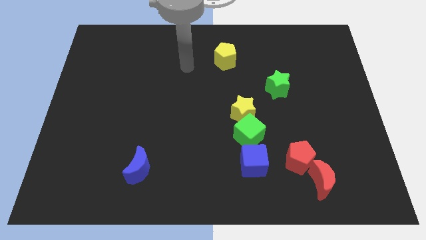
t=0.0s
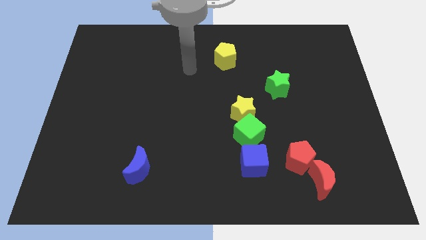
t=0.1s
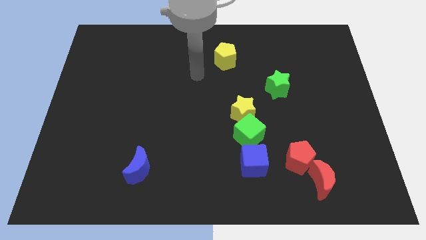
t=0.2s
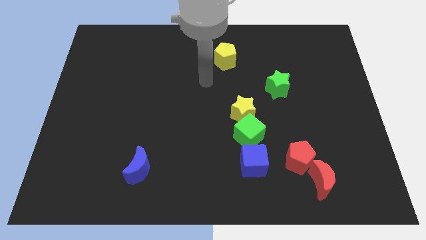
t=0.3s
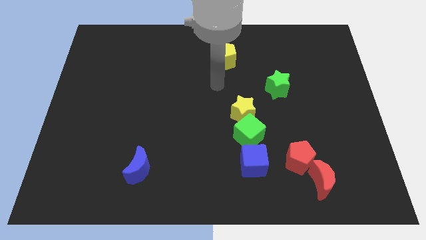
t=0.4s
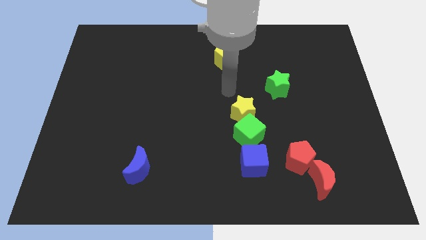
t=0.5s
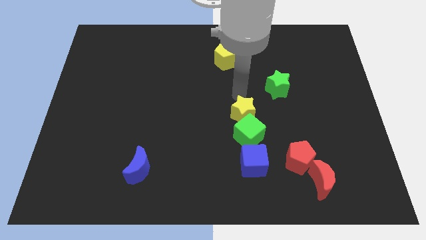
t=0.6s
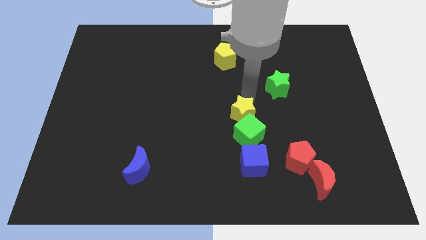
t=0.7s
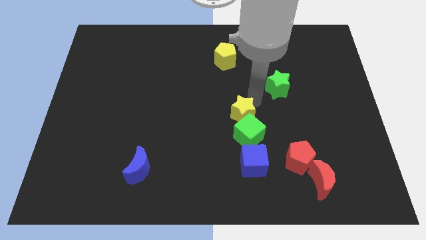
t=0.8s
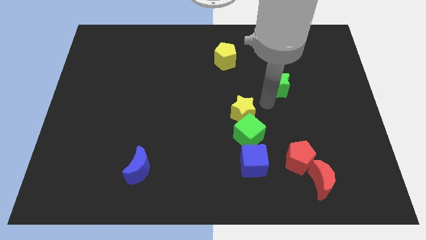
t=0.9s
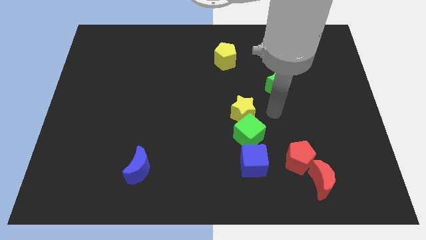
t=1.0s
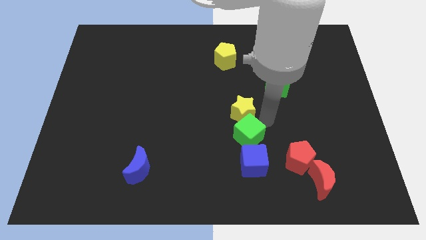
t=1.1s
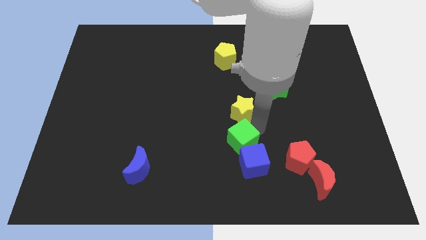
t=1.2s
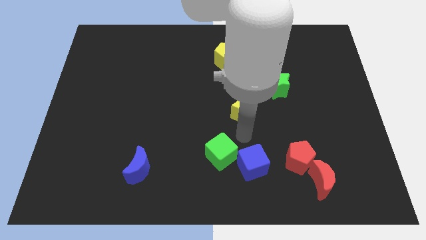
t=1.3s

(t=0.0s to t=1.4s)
pull the yellow star apart from the green cube

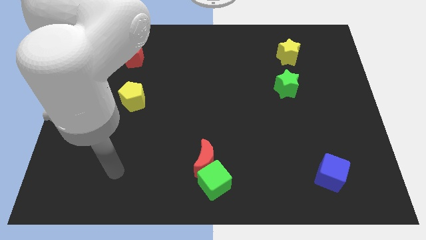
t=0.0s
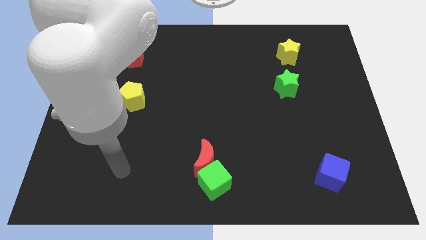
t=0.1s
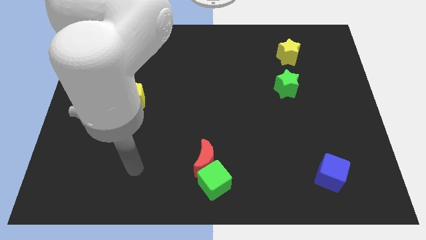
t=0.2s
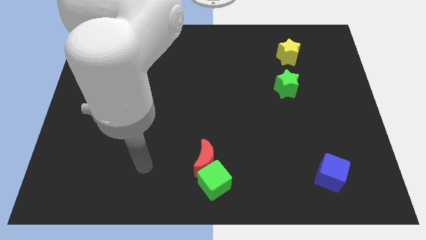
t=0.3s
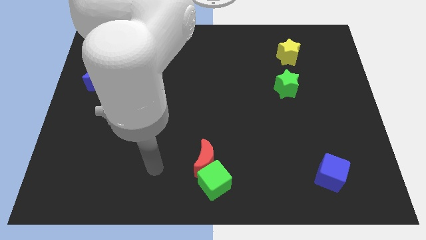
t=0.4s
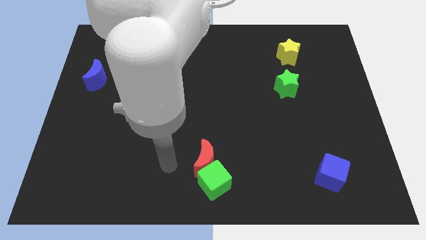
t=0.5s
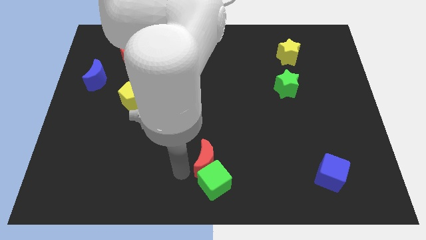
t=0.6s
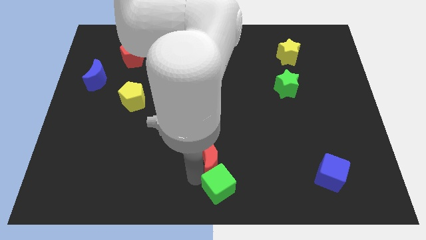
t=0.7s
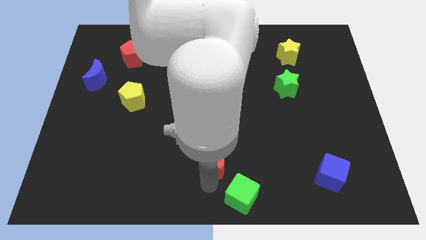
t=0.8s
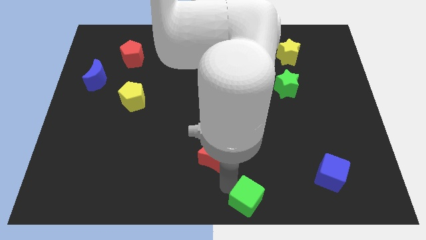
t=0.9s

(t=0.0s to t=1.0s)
pull the red moon apart from the green cube

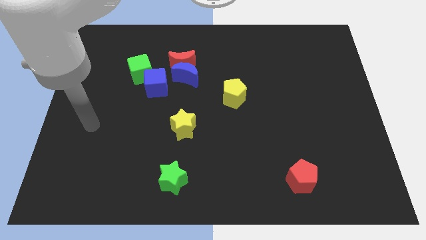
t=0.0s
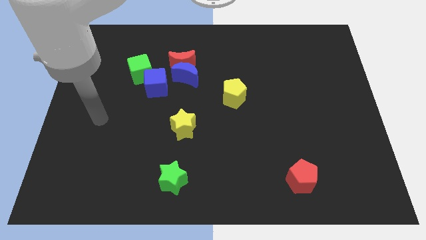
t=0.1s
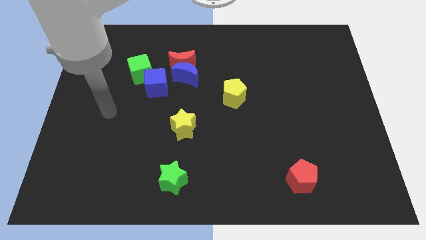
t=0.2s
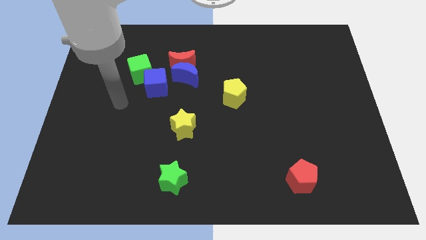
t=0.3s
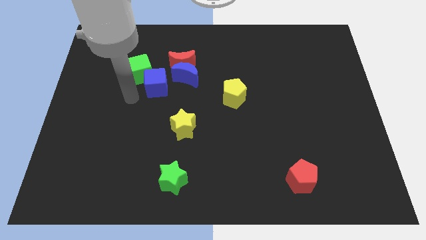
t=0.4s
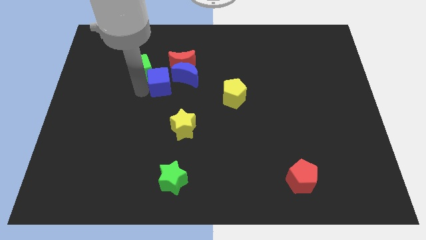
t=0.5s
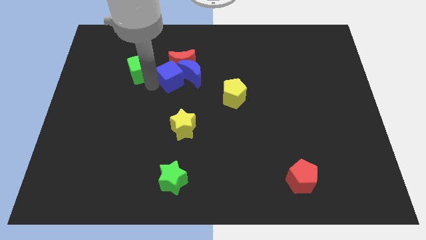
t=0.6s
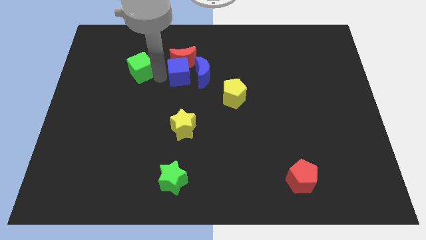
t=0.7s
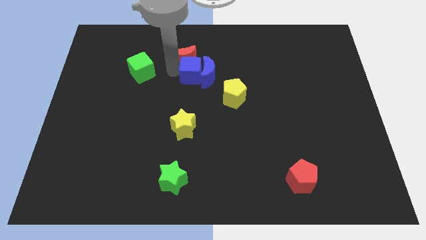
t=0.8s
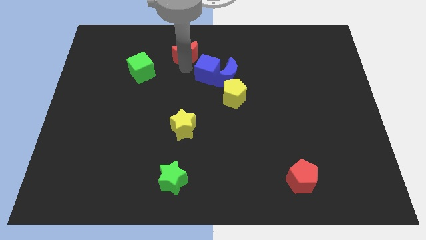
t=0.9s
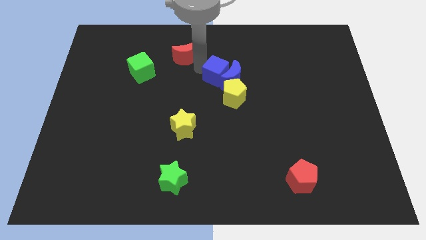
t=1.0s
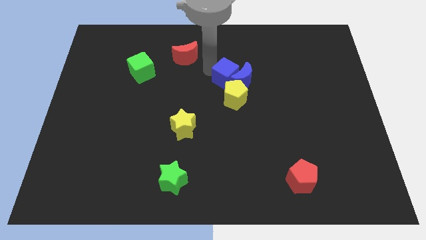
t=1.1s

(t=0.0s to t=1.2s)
separate the blue moon from the red moon and blue cube

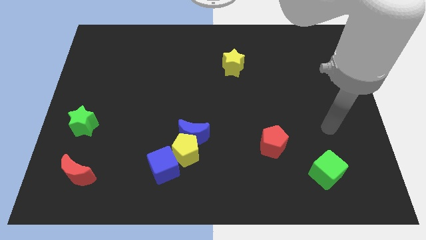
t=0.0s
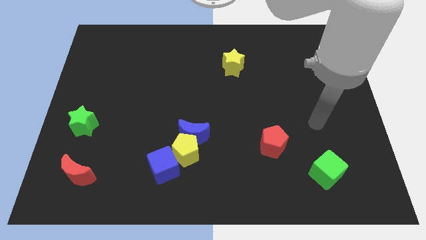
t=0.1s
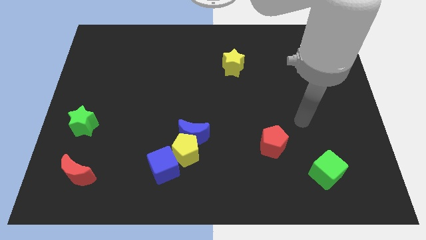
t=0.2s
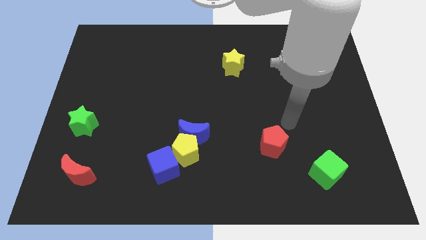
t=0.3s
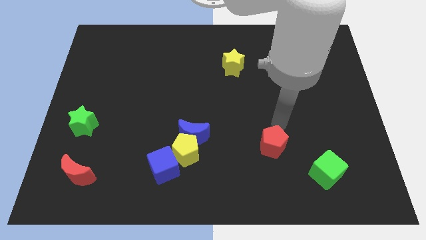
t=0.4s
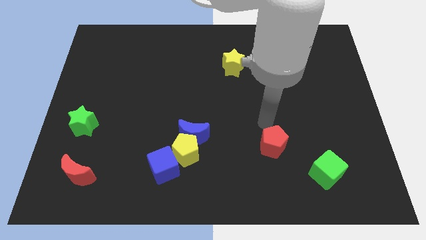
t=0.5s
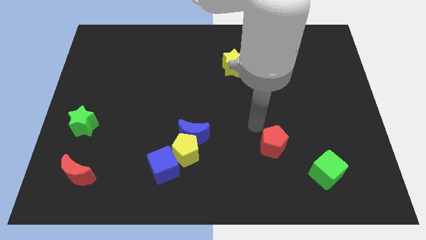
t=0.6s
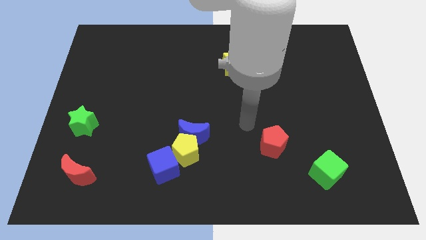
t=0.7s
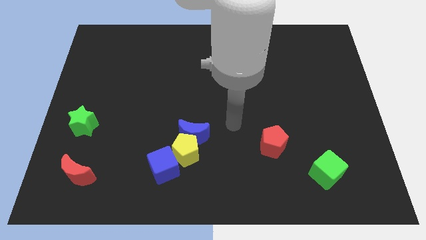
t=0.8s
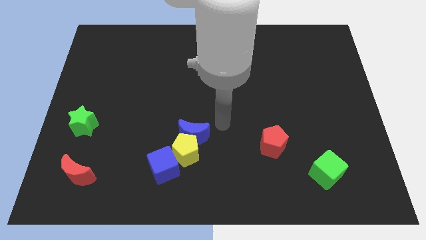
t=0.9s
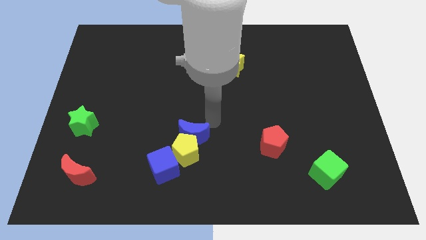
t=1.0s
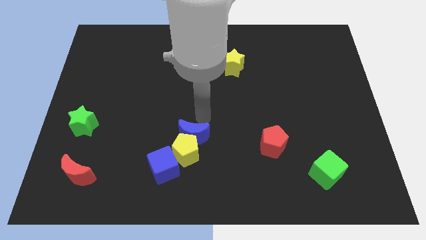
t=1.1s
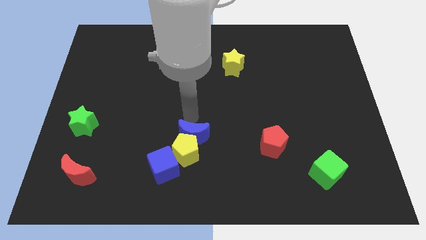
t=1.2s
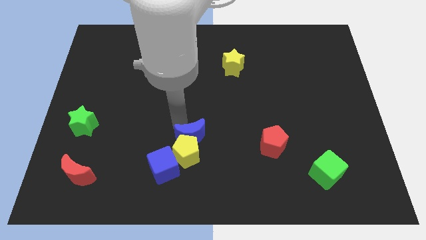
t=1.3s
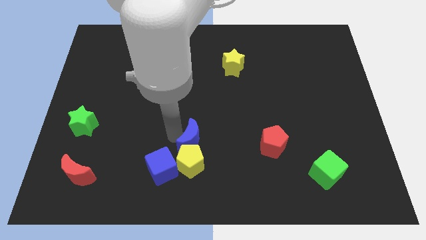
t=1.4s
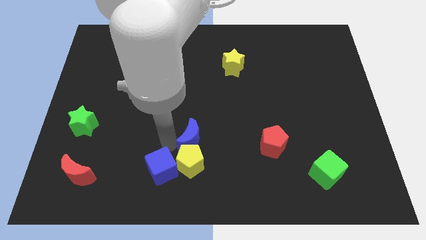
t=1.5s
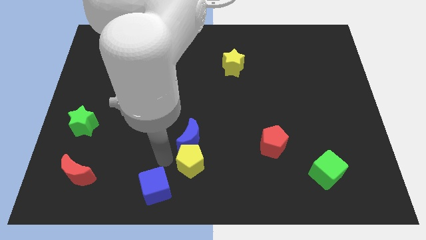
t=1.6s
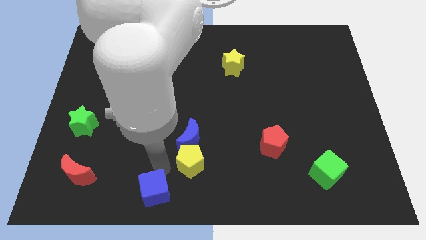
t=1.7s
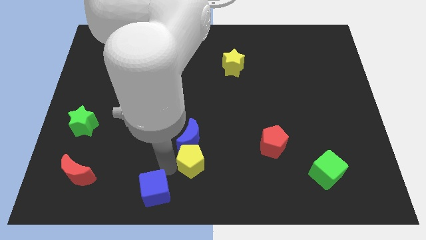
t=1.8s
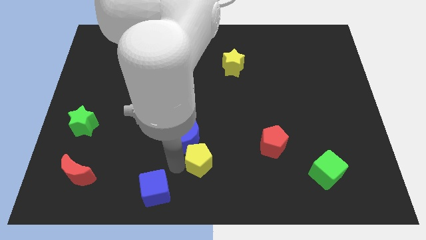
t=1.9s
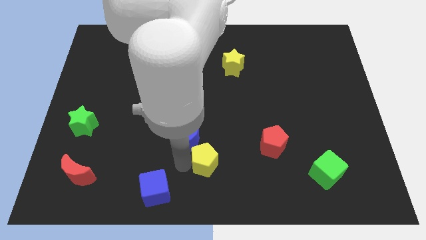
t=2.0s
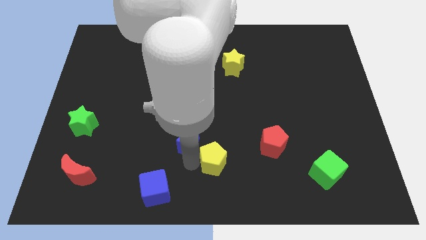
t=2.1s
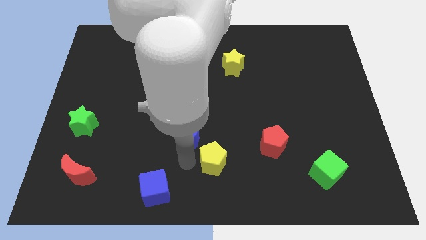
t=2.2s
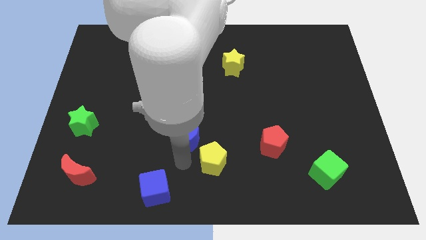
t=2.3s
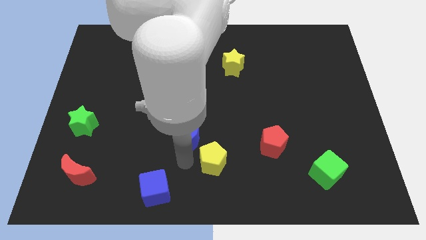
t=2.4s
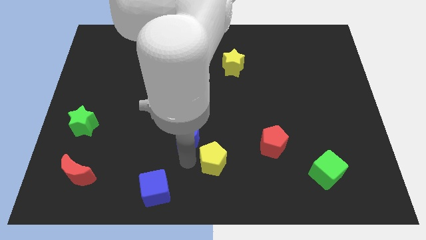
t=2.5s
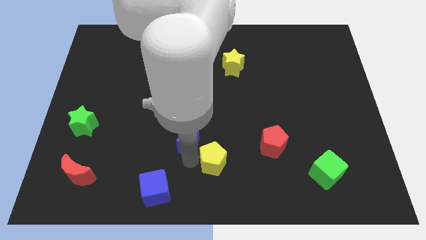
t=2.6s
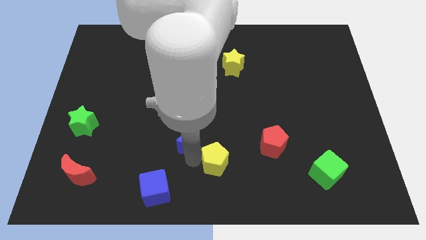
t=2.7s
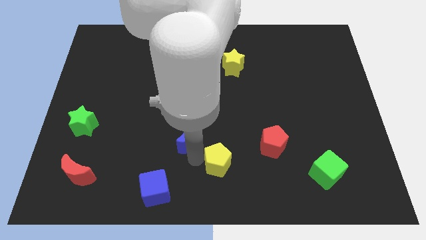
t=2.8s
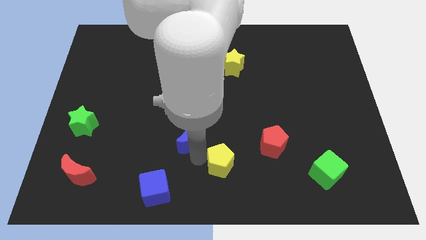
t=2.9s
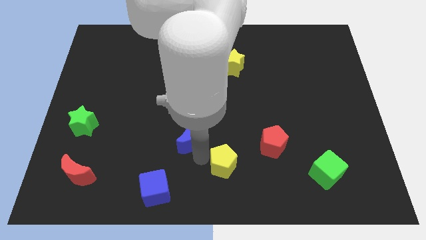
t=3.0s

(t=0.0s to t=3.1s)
move the yellow pentagon away from the blue moon and blue cube

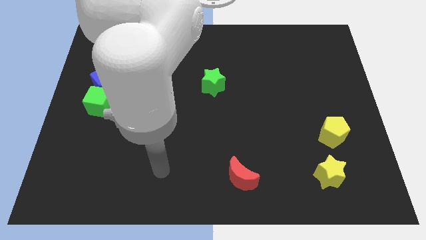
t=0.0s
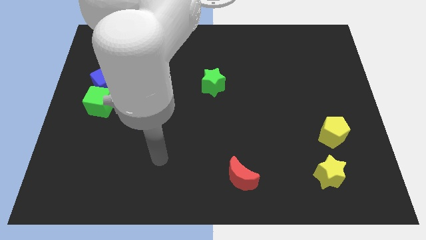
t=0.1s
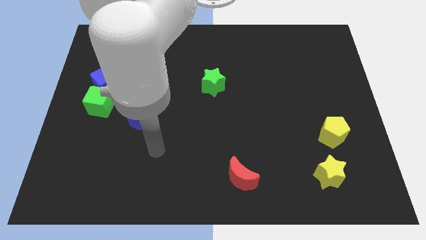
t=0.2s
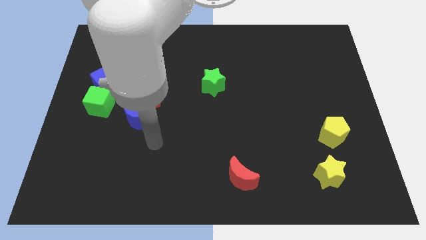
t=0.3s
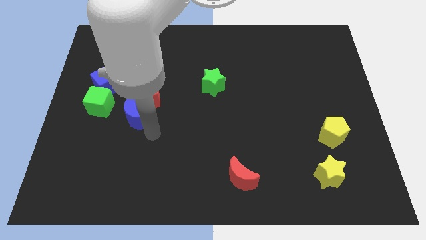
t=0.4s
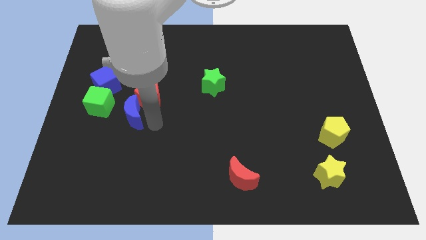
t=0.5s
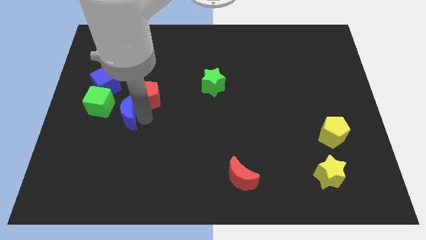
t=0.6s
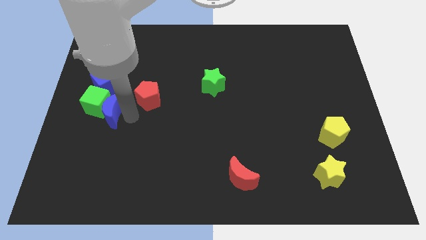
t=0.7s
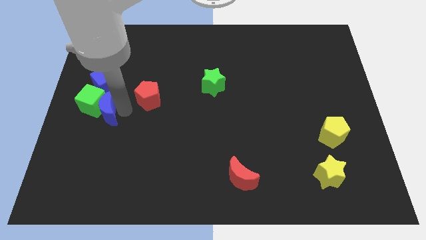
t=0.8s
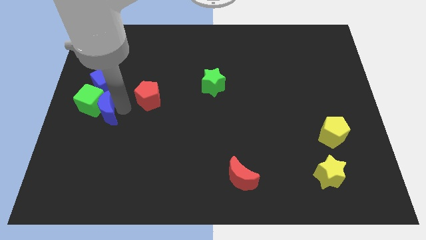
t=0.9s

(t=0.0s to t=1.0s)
separate the red pentagon from the blue moon

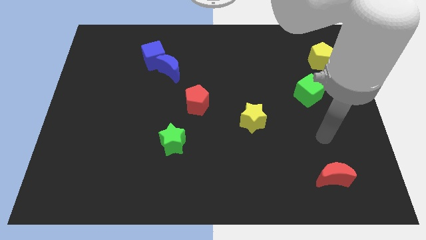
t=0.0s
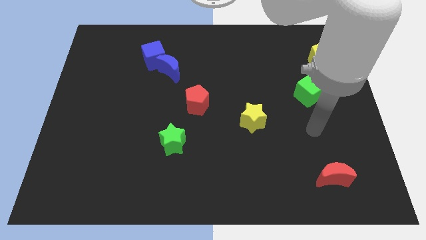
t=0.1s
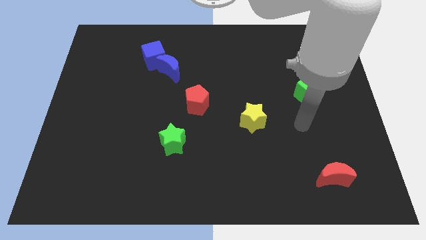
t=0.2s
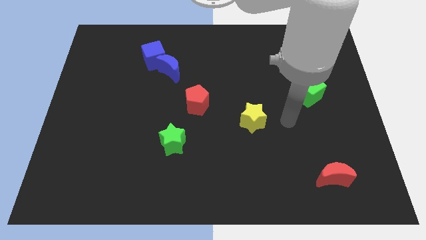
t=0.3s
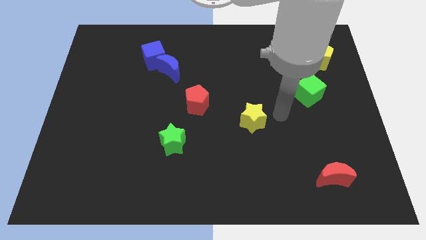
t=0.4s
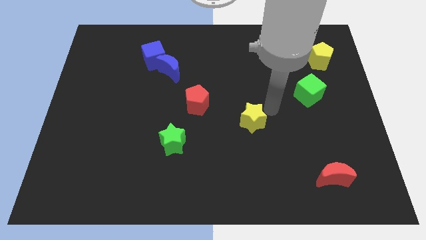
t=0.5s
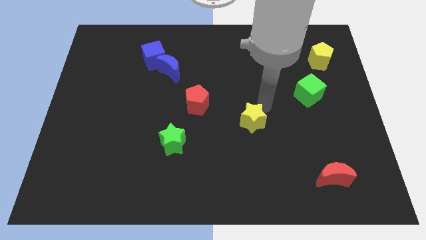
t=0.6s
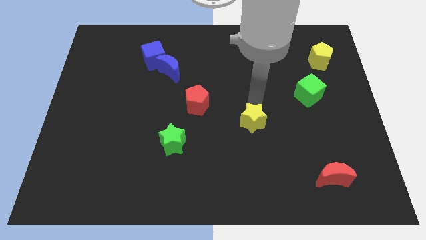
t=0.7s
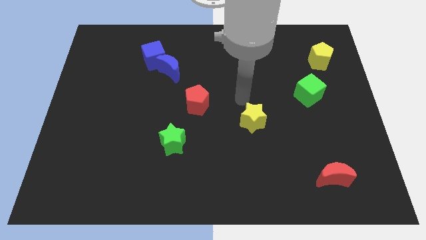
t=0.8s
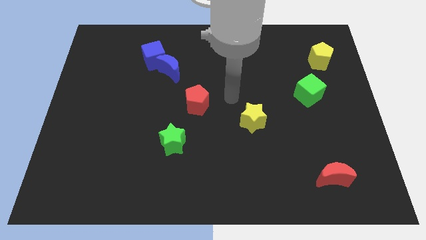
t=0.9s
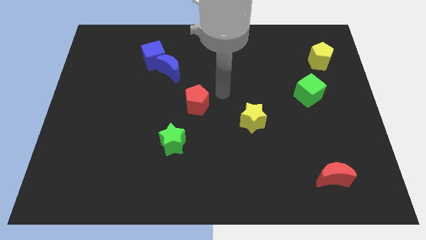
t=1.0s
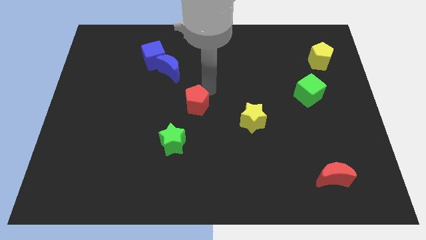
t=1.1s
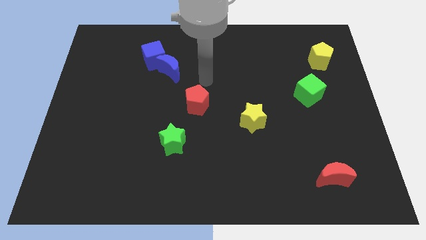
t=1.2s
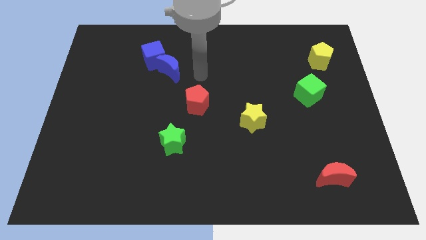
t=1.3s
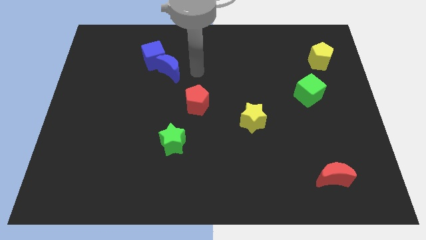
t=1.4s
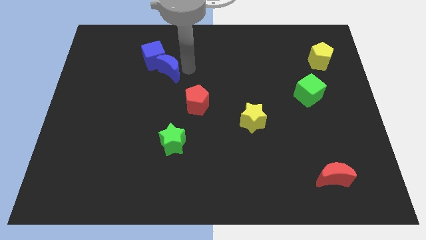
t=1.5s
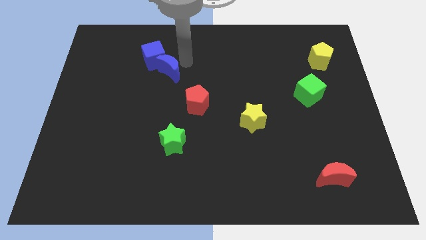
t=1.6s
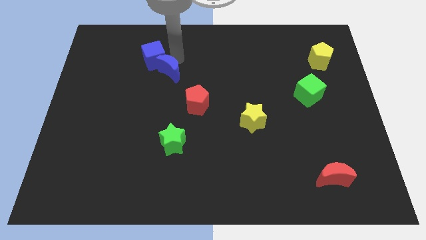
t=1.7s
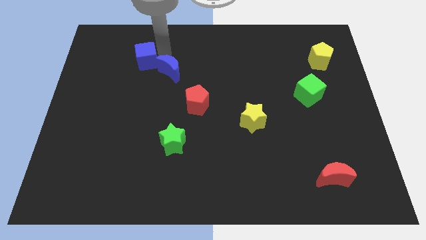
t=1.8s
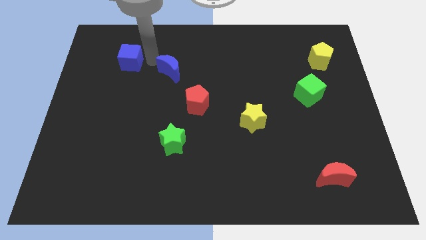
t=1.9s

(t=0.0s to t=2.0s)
pull the blue moon apart from the blue cube
